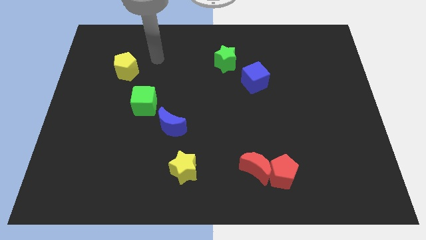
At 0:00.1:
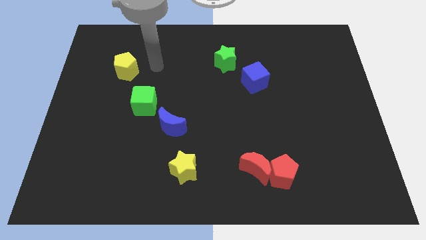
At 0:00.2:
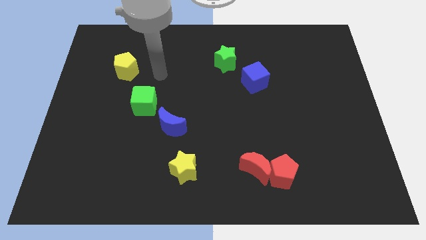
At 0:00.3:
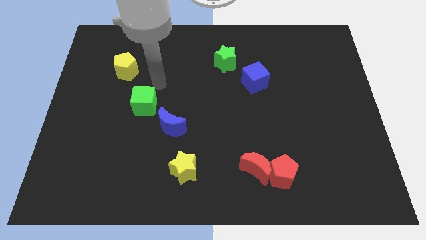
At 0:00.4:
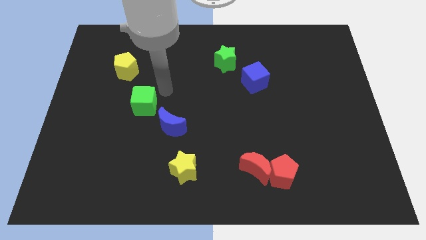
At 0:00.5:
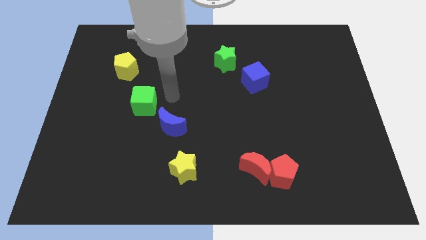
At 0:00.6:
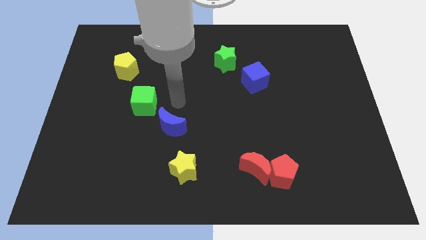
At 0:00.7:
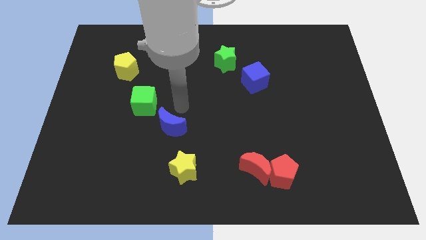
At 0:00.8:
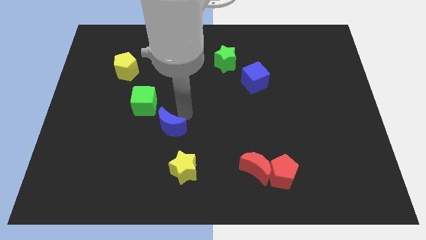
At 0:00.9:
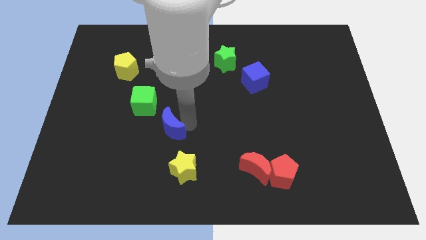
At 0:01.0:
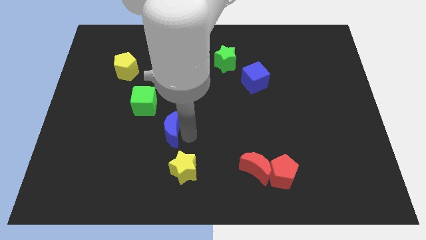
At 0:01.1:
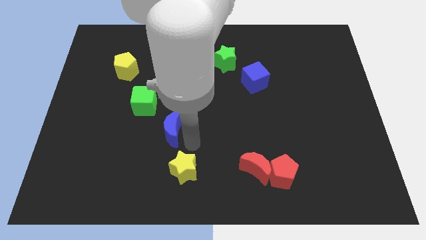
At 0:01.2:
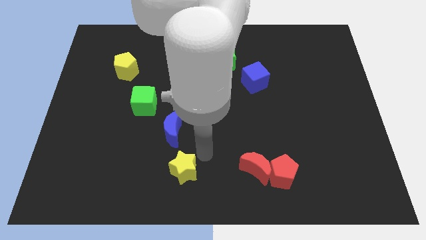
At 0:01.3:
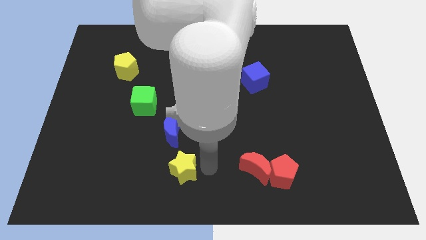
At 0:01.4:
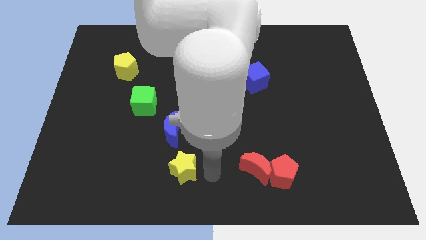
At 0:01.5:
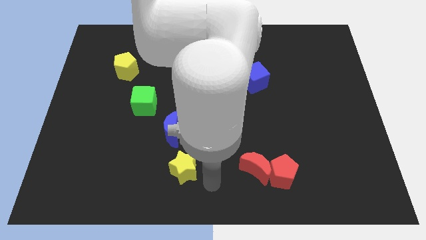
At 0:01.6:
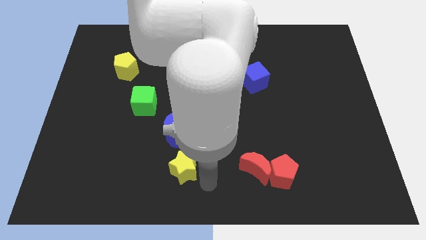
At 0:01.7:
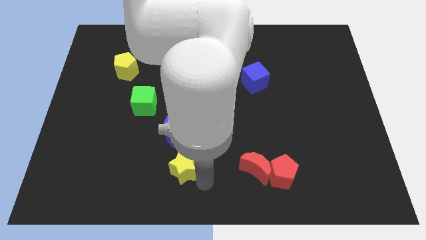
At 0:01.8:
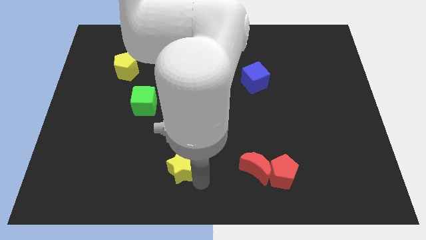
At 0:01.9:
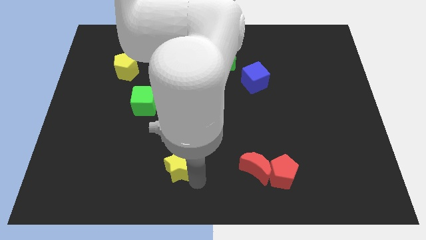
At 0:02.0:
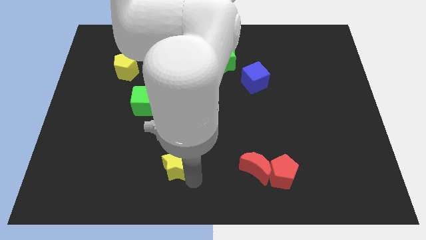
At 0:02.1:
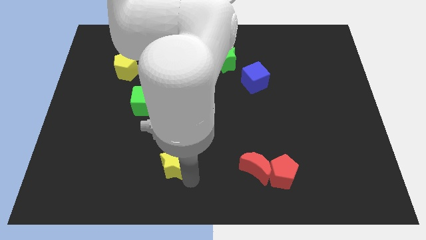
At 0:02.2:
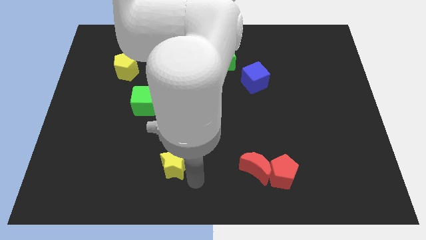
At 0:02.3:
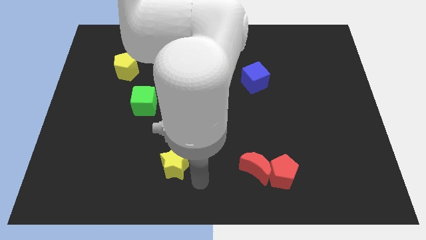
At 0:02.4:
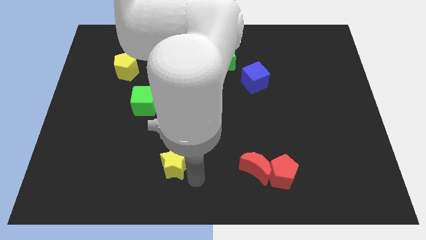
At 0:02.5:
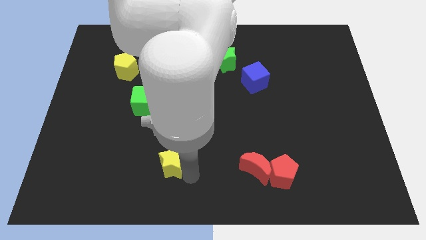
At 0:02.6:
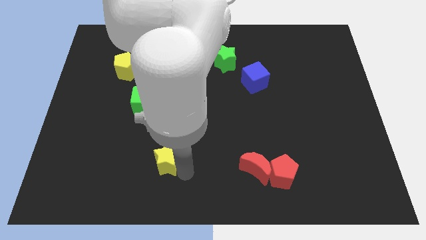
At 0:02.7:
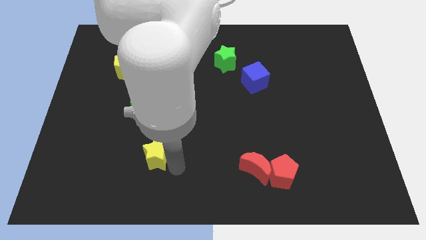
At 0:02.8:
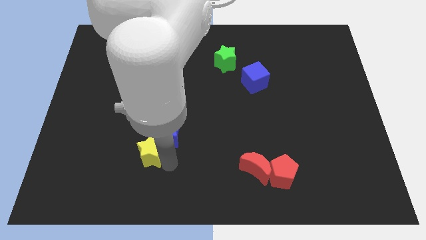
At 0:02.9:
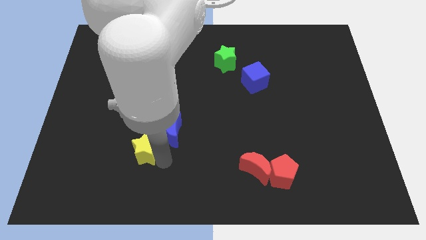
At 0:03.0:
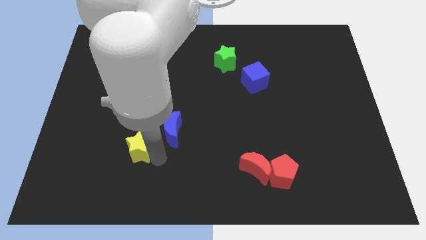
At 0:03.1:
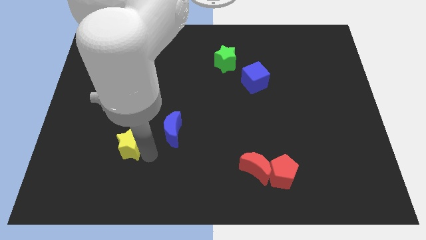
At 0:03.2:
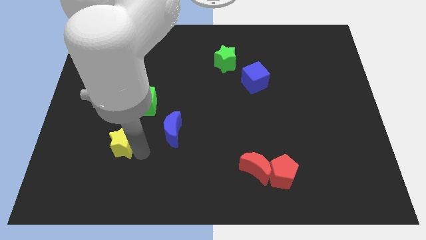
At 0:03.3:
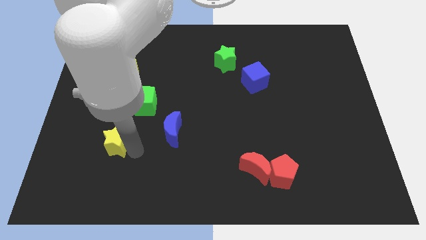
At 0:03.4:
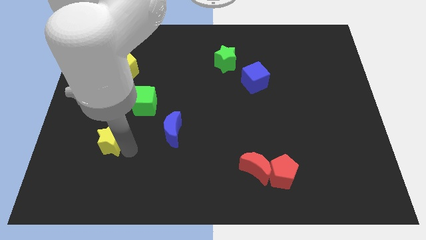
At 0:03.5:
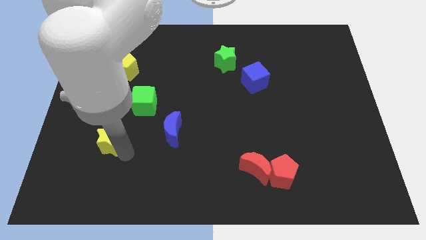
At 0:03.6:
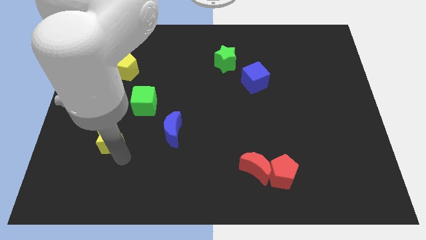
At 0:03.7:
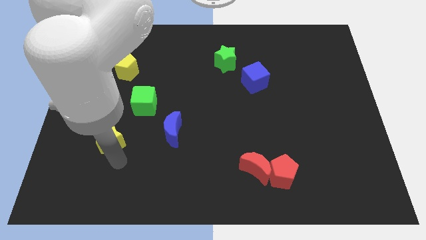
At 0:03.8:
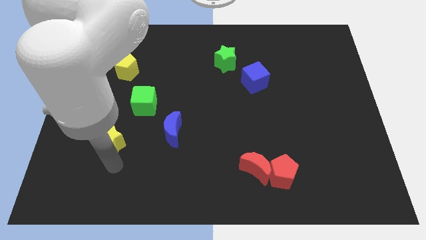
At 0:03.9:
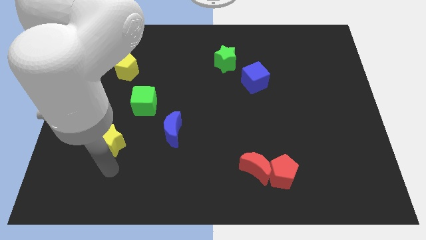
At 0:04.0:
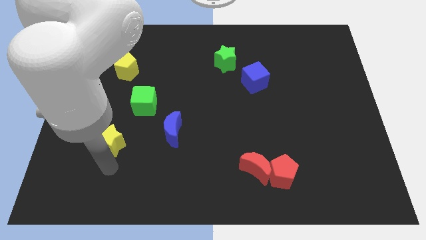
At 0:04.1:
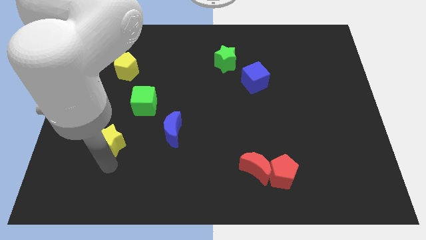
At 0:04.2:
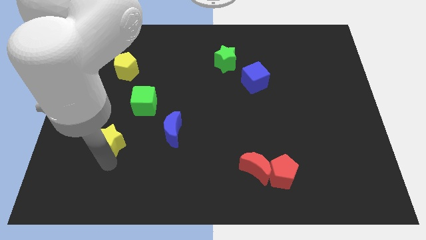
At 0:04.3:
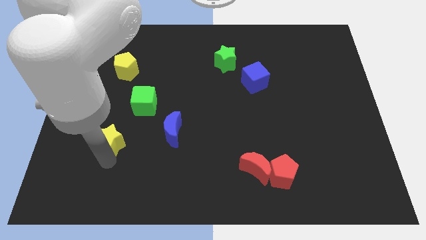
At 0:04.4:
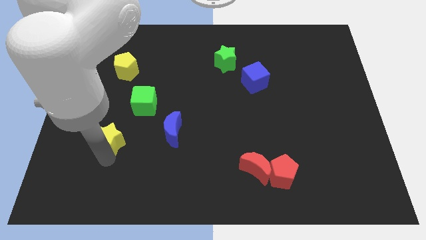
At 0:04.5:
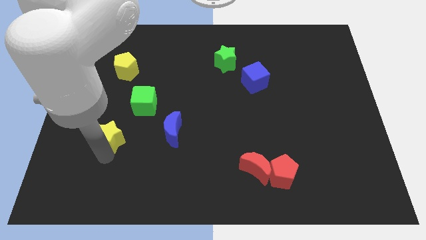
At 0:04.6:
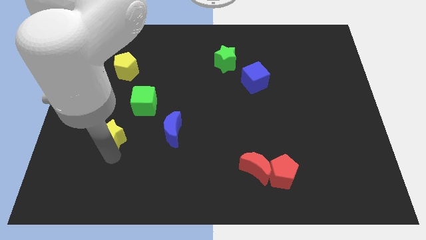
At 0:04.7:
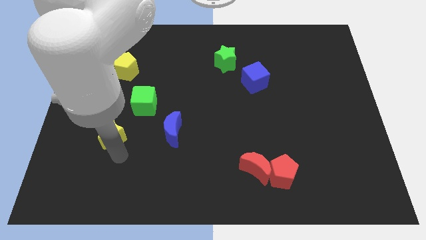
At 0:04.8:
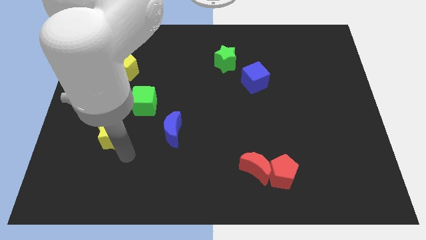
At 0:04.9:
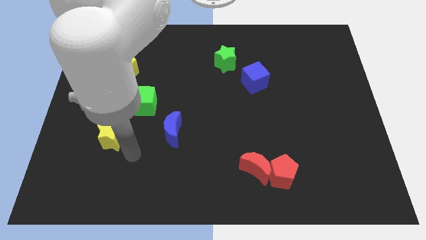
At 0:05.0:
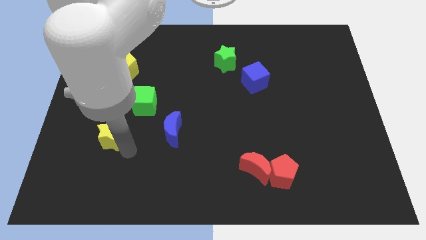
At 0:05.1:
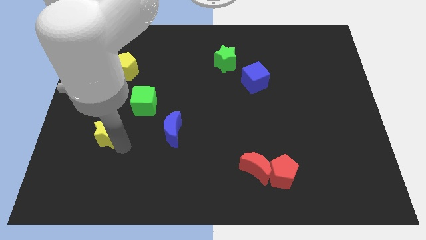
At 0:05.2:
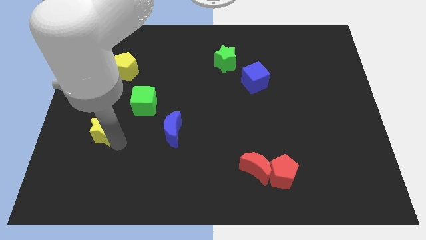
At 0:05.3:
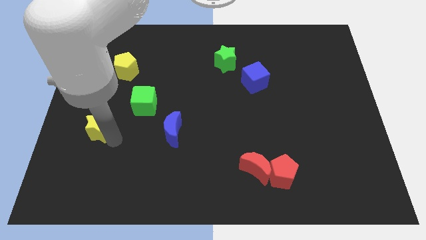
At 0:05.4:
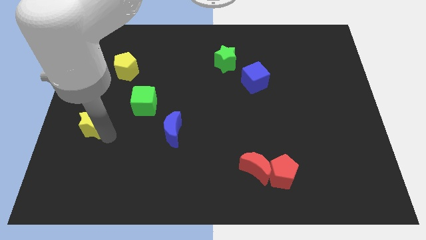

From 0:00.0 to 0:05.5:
slide the yellow star to the left side of the board
